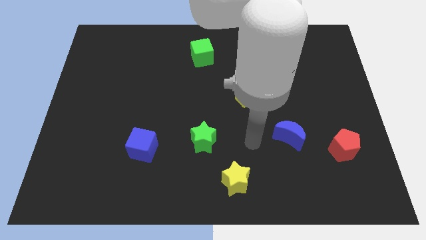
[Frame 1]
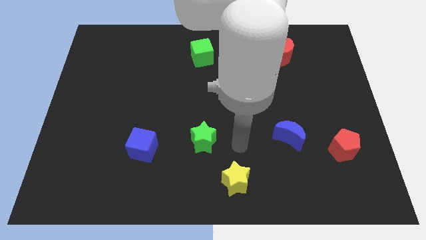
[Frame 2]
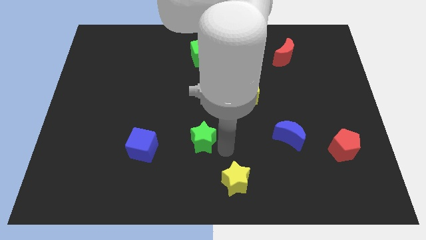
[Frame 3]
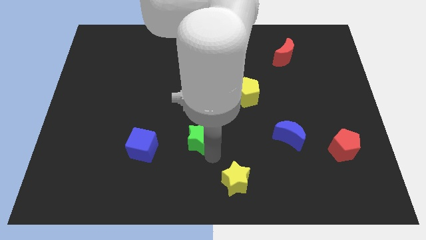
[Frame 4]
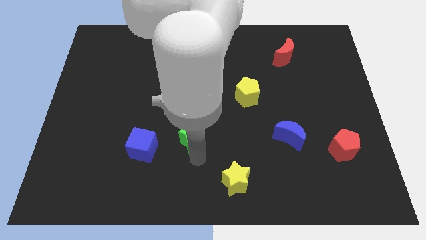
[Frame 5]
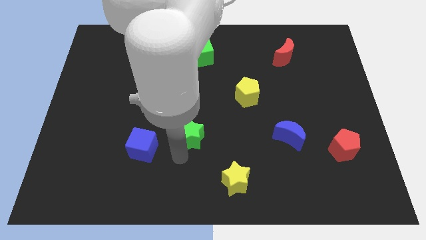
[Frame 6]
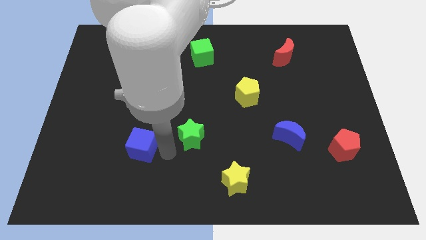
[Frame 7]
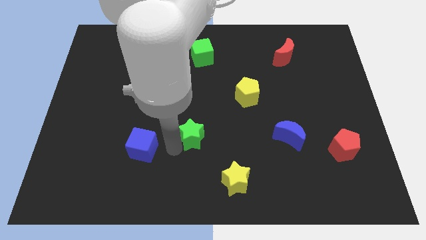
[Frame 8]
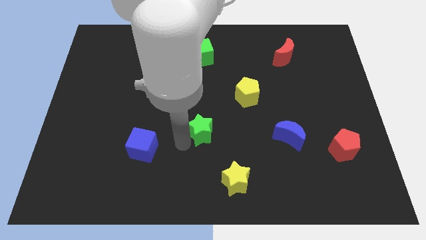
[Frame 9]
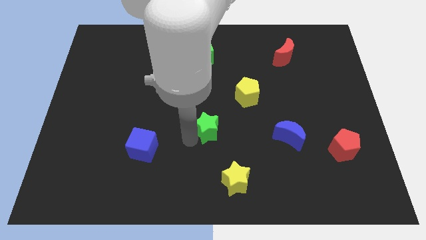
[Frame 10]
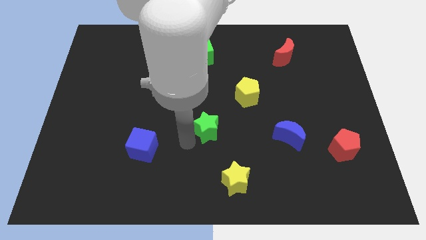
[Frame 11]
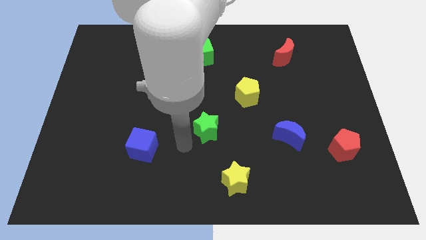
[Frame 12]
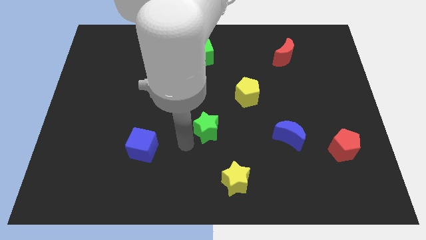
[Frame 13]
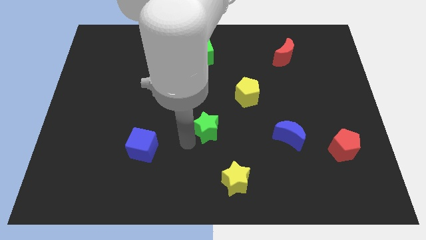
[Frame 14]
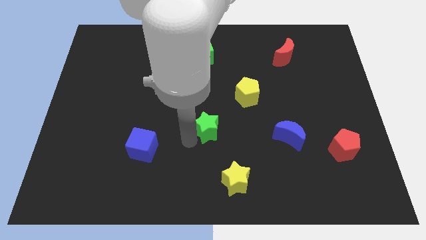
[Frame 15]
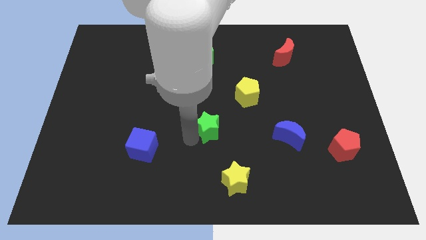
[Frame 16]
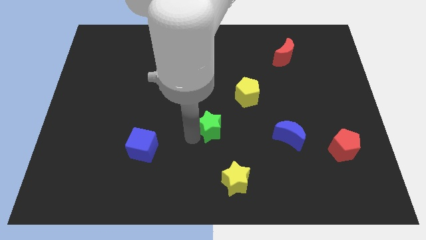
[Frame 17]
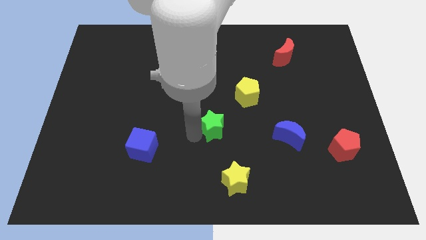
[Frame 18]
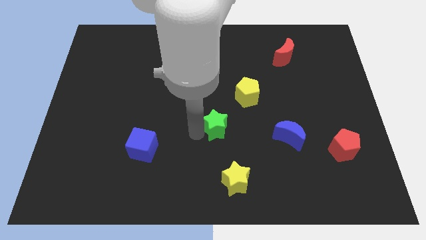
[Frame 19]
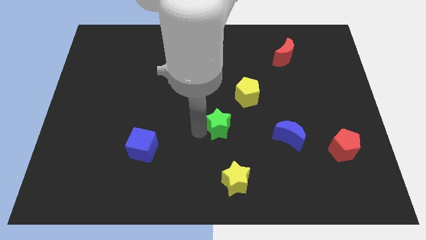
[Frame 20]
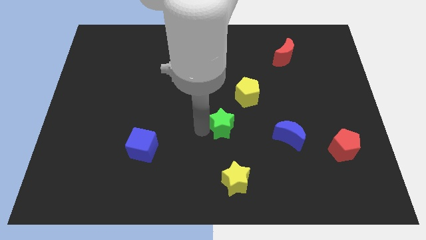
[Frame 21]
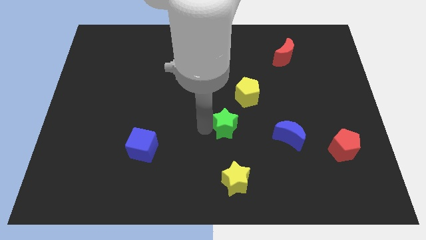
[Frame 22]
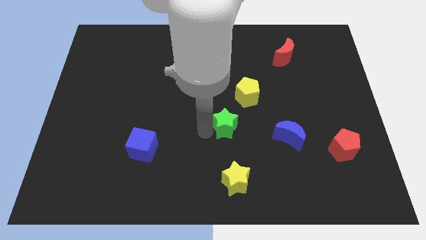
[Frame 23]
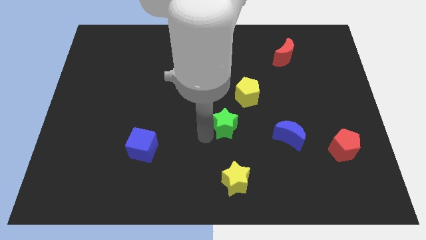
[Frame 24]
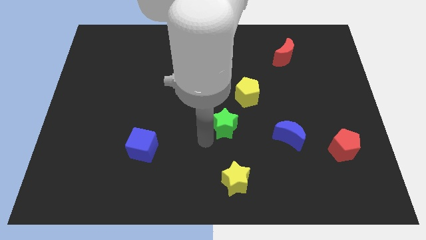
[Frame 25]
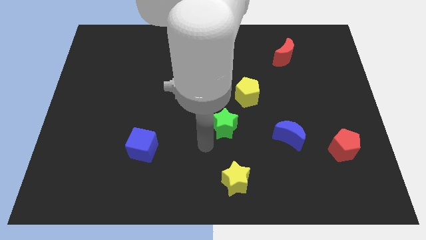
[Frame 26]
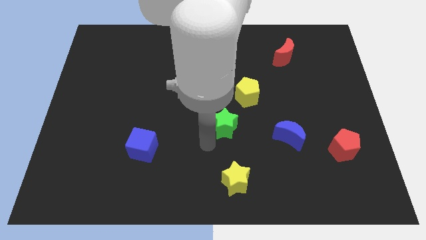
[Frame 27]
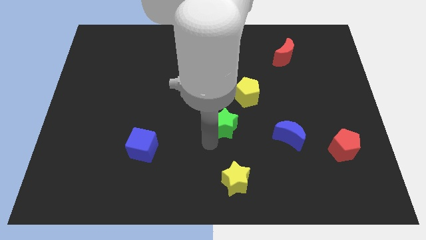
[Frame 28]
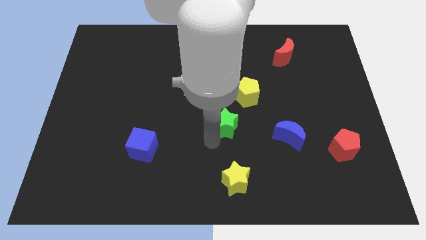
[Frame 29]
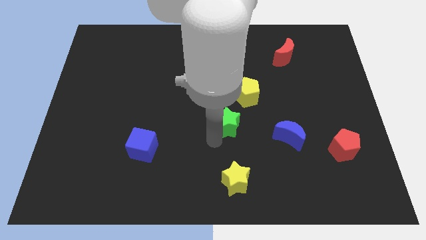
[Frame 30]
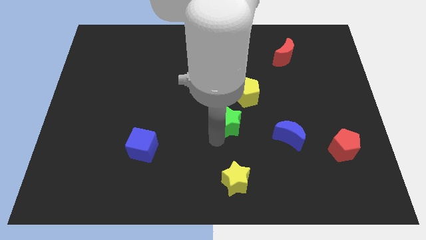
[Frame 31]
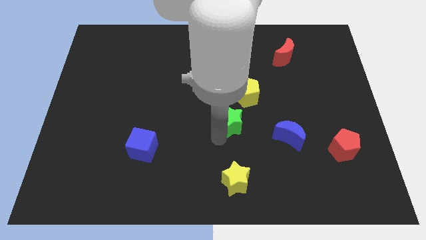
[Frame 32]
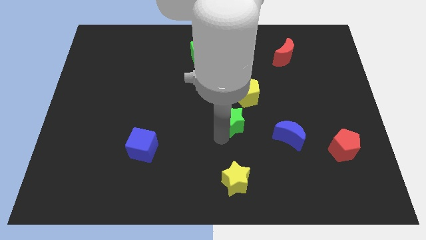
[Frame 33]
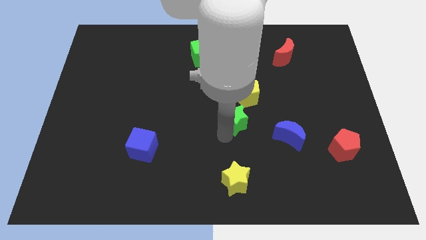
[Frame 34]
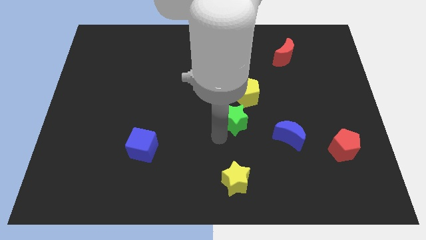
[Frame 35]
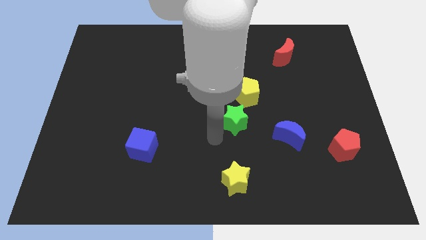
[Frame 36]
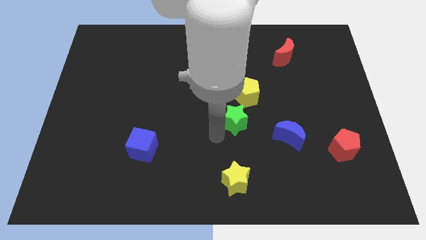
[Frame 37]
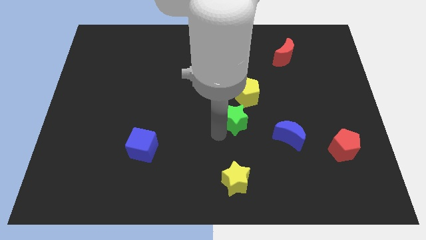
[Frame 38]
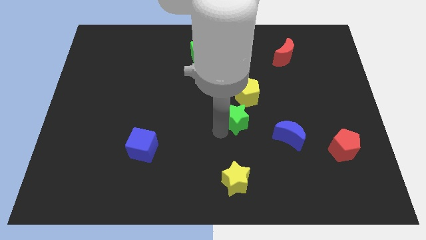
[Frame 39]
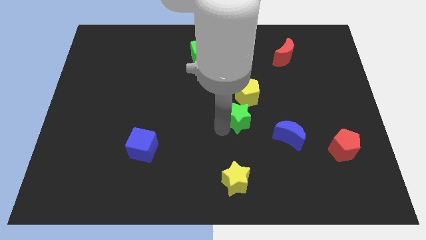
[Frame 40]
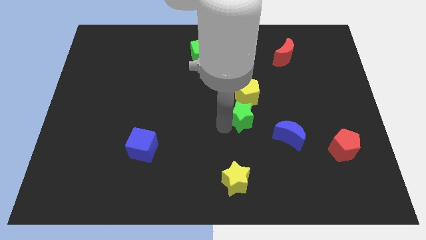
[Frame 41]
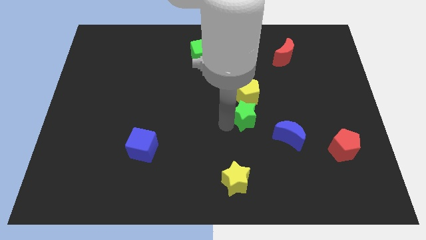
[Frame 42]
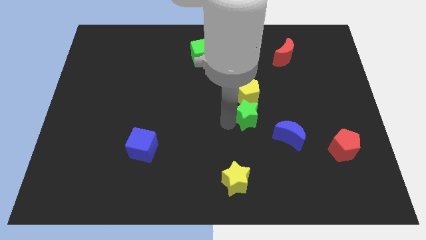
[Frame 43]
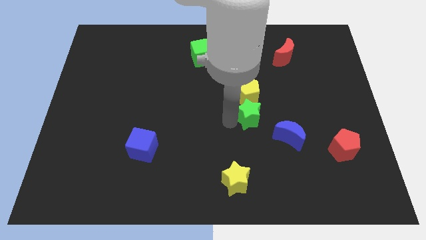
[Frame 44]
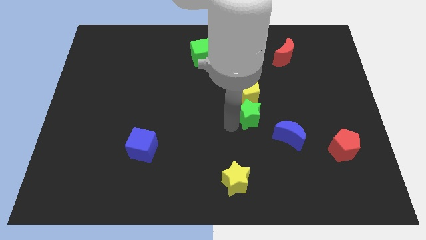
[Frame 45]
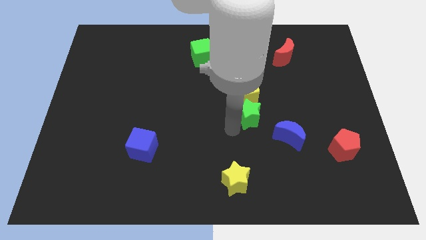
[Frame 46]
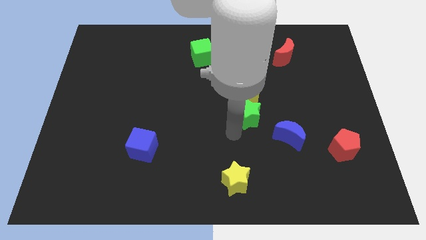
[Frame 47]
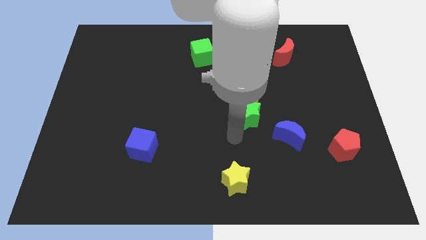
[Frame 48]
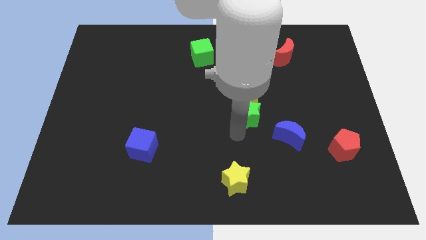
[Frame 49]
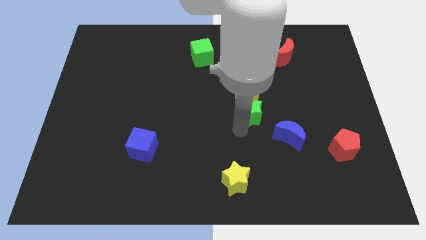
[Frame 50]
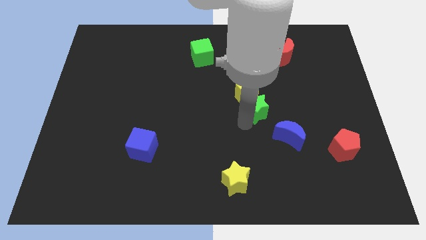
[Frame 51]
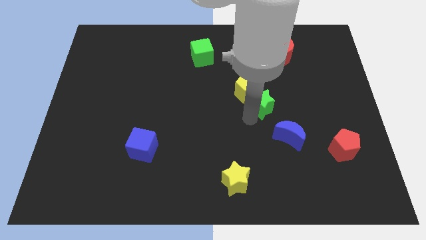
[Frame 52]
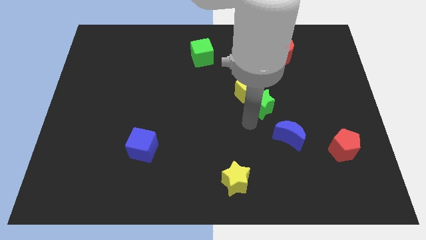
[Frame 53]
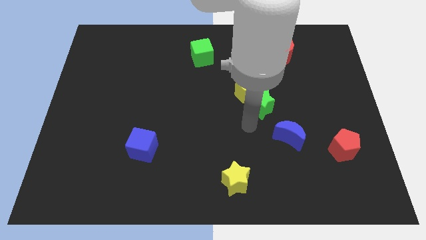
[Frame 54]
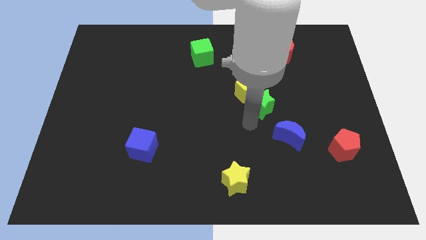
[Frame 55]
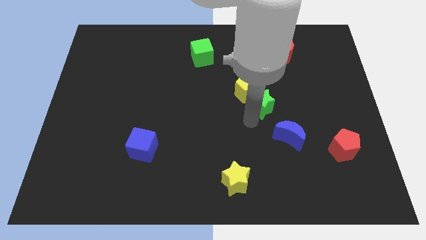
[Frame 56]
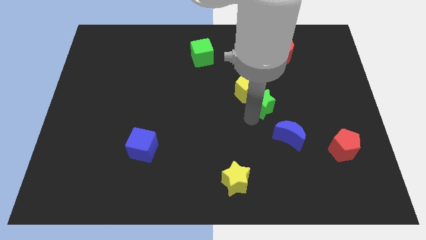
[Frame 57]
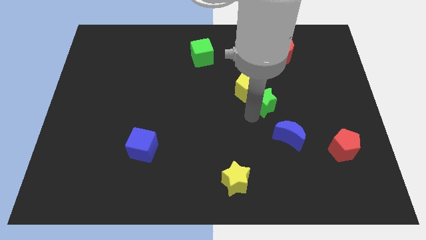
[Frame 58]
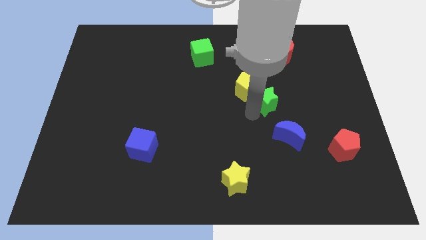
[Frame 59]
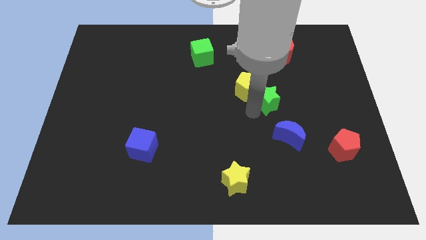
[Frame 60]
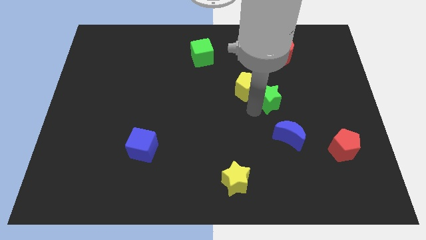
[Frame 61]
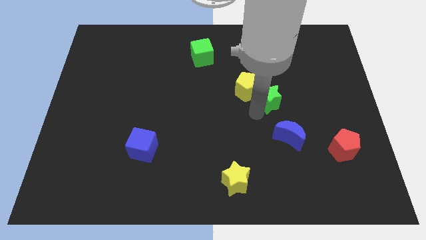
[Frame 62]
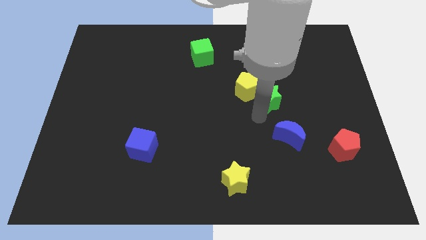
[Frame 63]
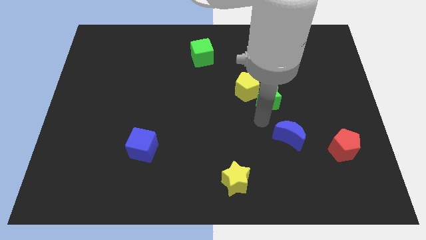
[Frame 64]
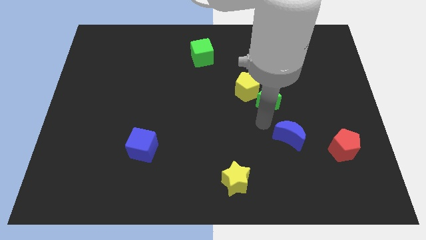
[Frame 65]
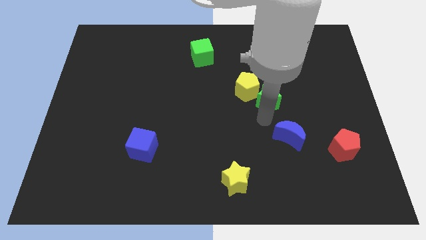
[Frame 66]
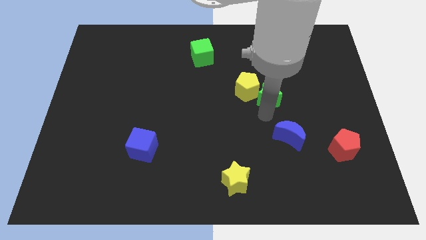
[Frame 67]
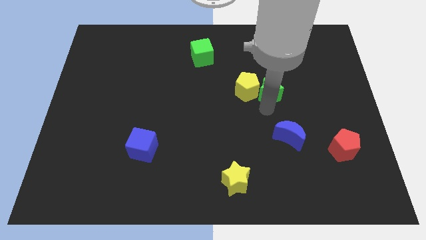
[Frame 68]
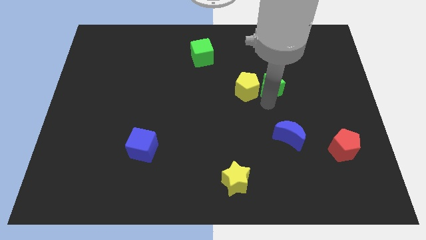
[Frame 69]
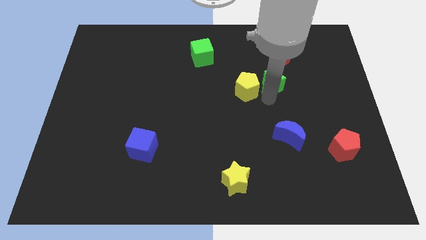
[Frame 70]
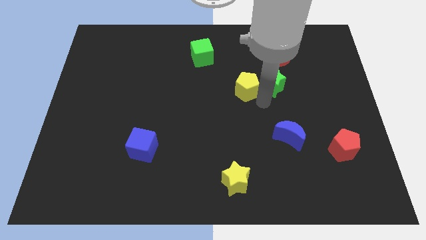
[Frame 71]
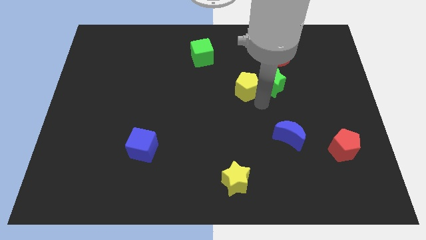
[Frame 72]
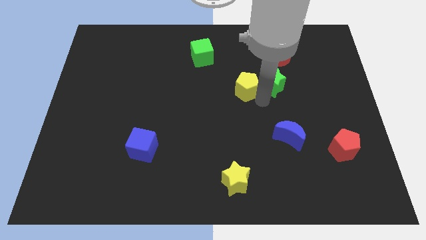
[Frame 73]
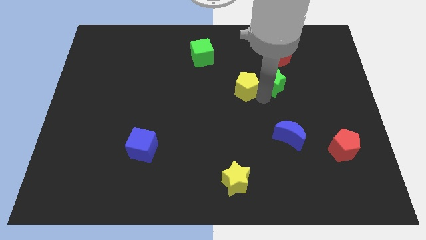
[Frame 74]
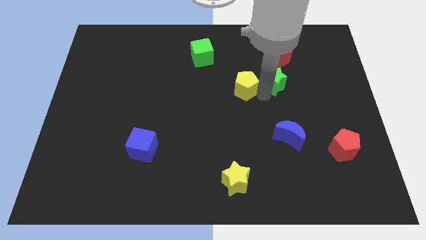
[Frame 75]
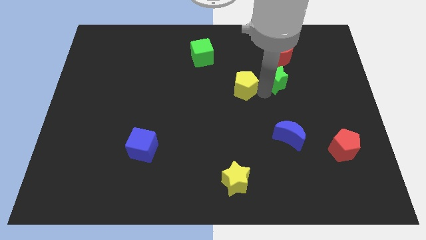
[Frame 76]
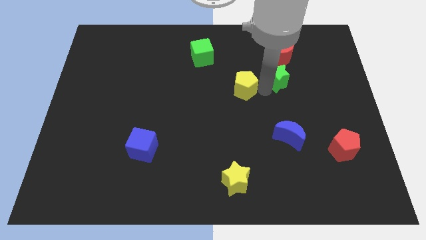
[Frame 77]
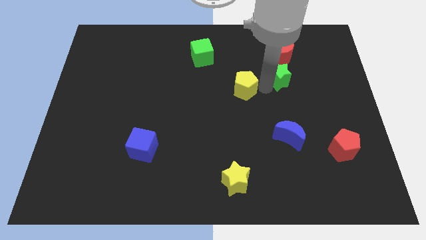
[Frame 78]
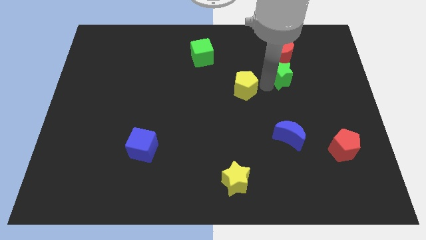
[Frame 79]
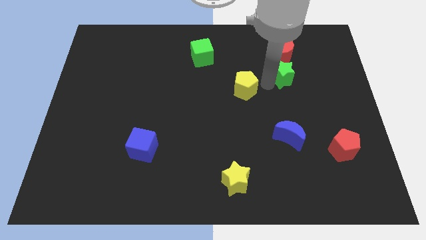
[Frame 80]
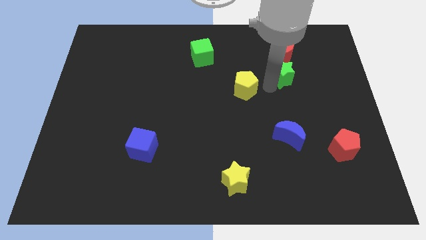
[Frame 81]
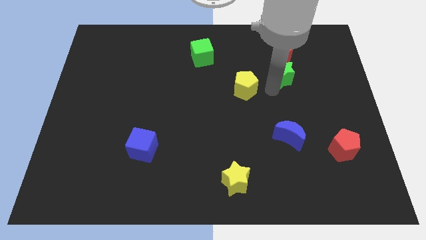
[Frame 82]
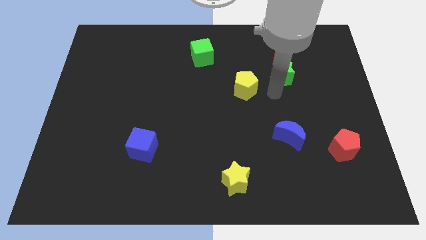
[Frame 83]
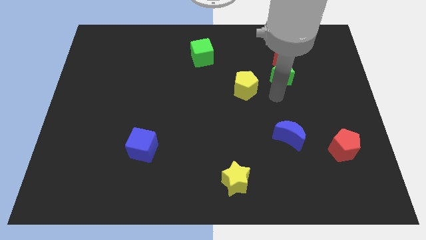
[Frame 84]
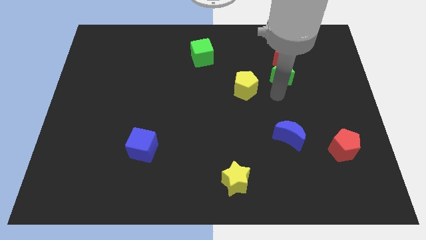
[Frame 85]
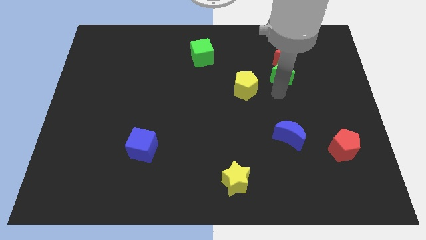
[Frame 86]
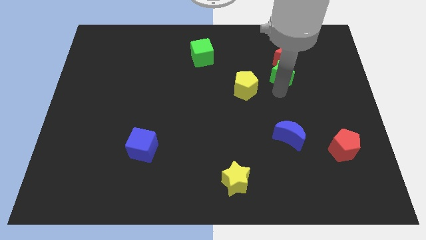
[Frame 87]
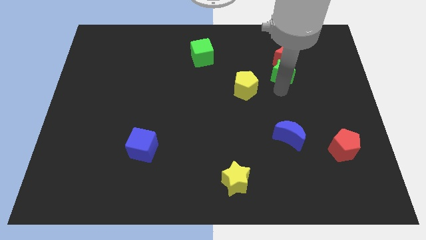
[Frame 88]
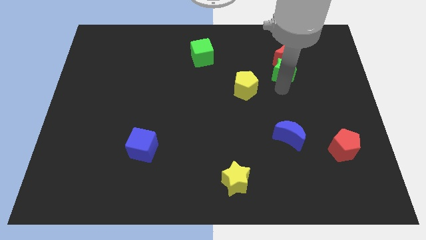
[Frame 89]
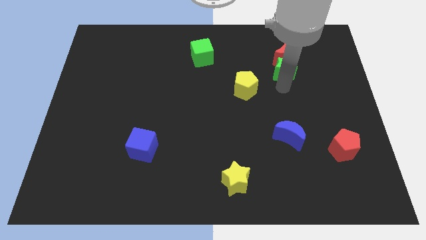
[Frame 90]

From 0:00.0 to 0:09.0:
slide the green star next to the red moon
